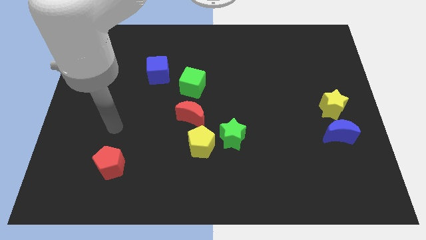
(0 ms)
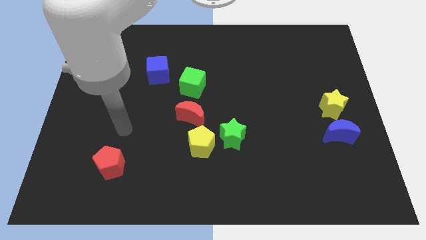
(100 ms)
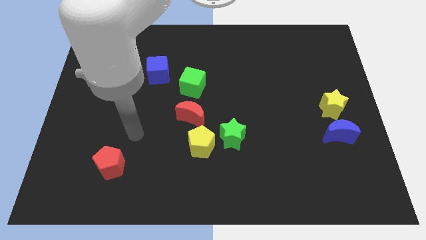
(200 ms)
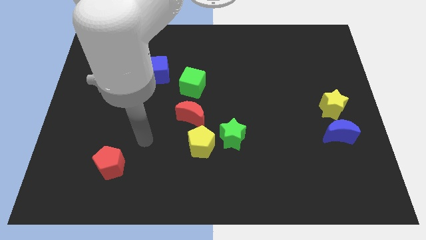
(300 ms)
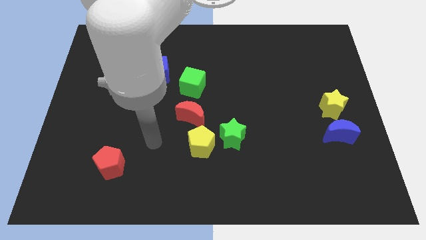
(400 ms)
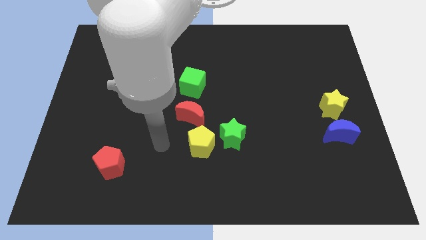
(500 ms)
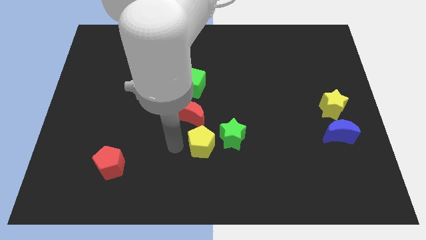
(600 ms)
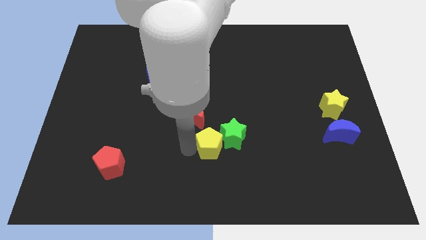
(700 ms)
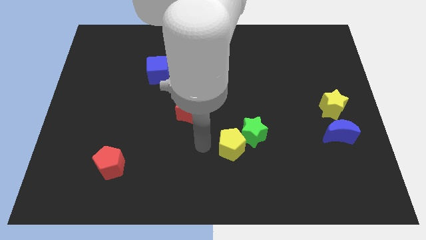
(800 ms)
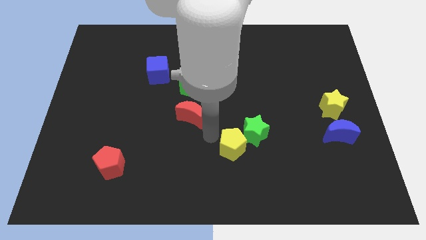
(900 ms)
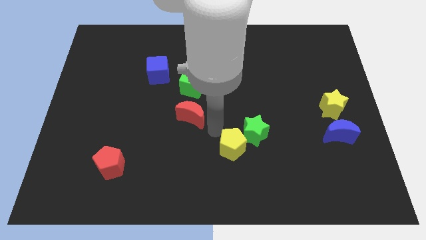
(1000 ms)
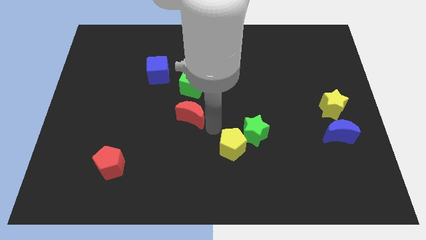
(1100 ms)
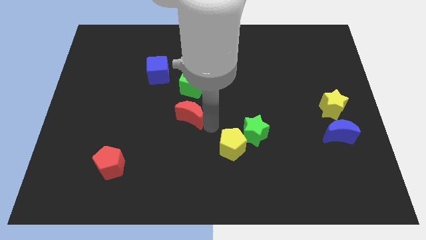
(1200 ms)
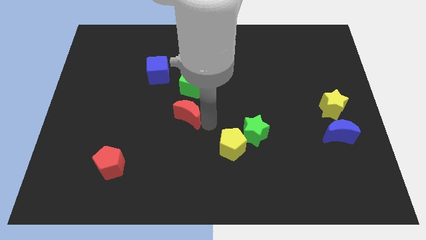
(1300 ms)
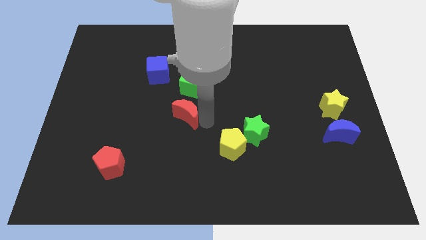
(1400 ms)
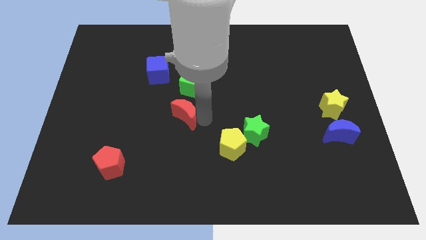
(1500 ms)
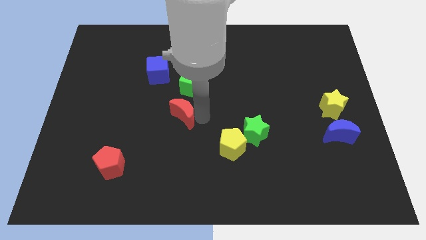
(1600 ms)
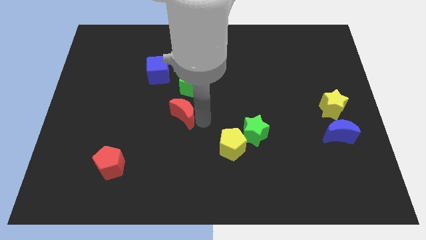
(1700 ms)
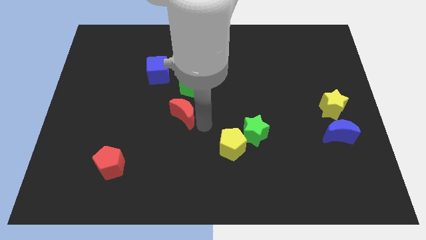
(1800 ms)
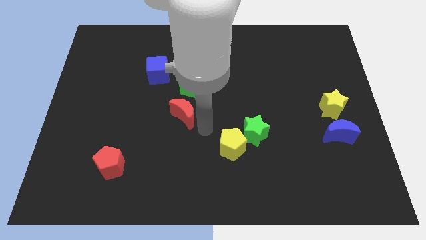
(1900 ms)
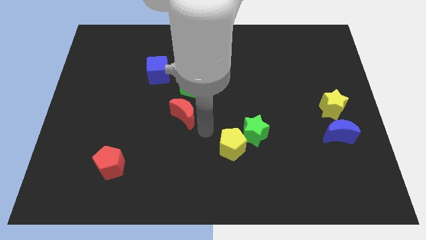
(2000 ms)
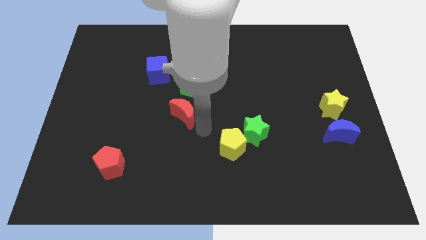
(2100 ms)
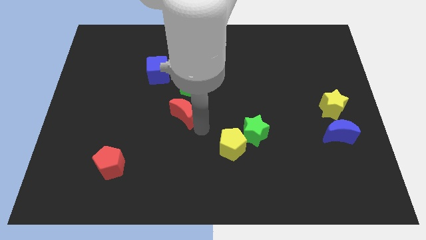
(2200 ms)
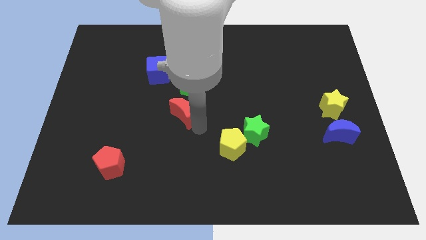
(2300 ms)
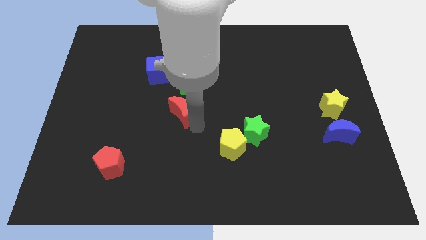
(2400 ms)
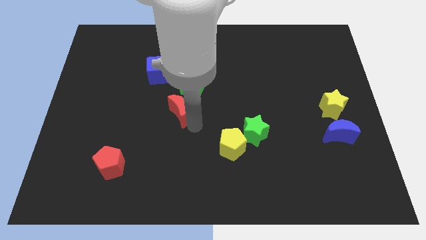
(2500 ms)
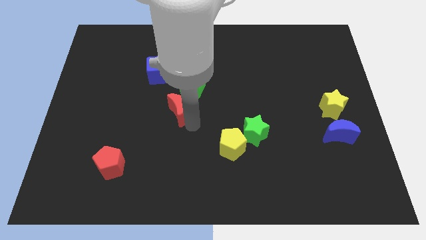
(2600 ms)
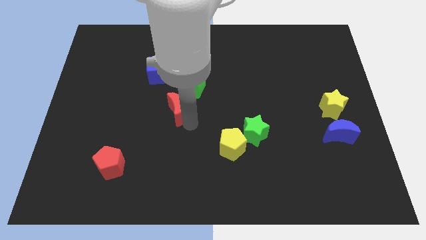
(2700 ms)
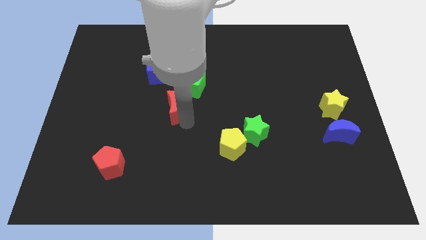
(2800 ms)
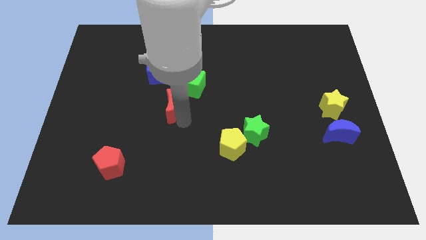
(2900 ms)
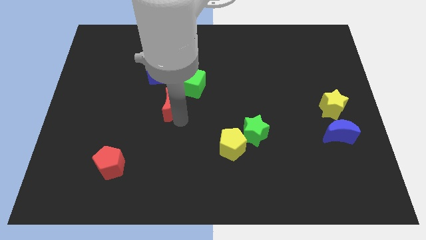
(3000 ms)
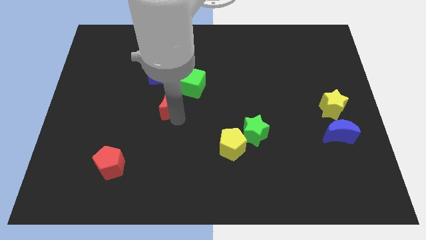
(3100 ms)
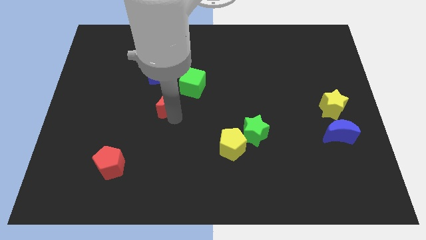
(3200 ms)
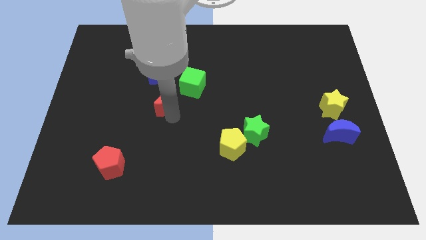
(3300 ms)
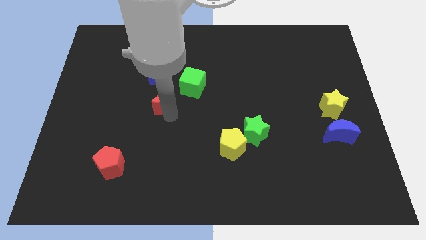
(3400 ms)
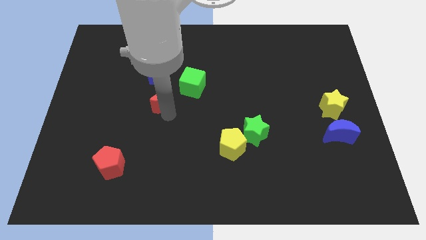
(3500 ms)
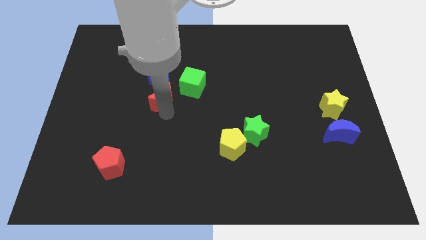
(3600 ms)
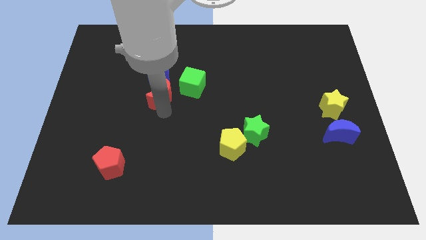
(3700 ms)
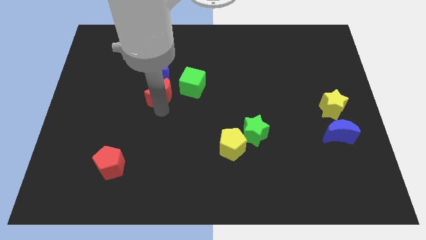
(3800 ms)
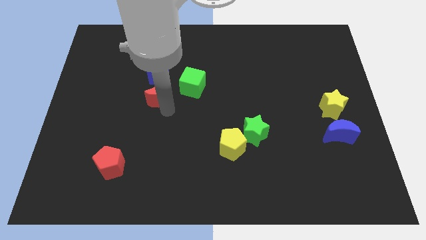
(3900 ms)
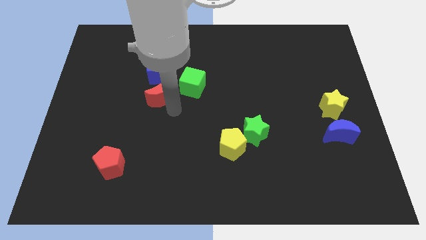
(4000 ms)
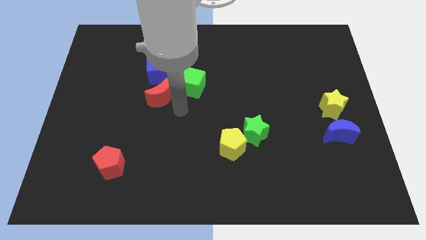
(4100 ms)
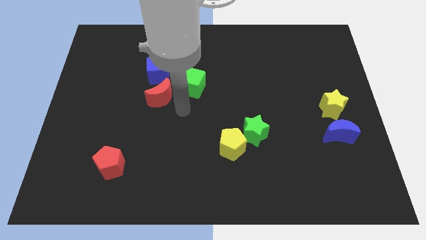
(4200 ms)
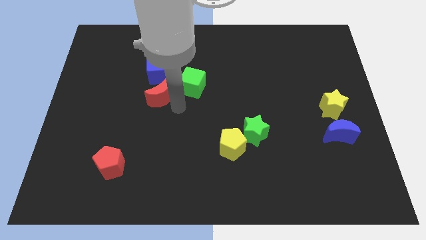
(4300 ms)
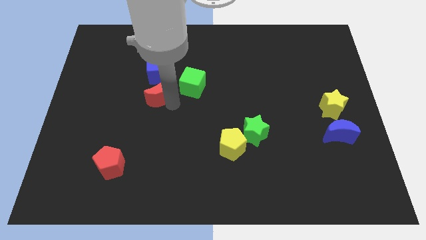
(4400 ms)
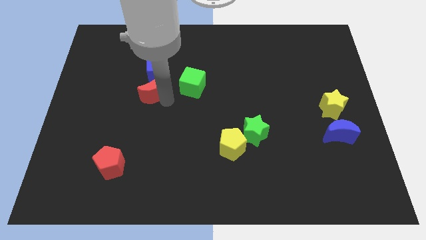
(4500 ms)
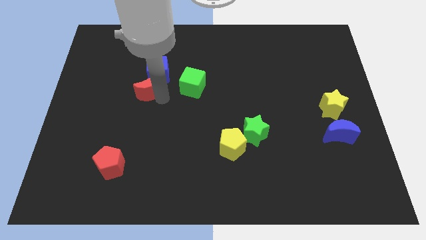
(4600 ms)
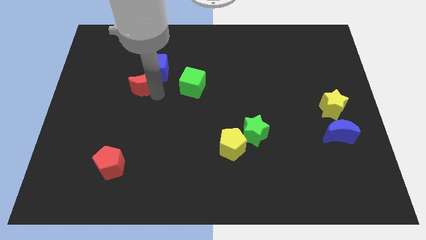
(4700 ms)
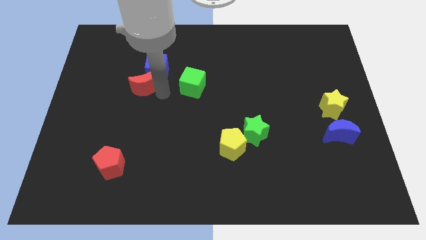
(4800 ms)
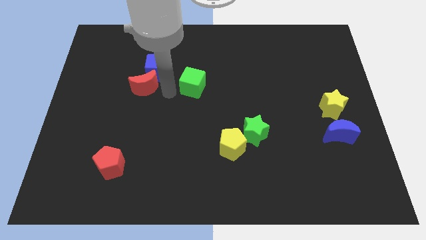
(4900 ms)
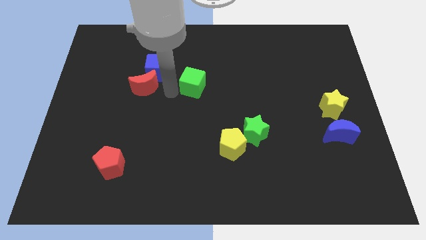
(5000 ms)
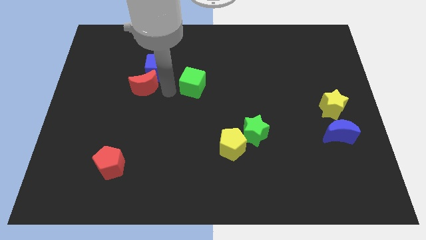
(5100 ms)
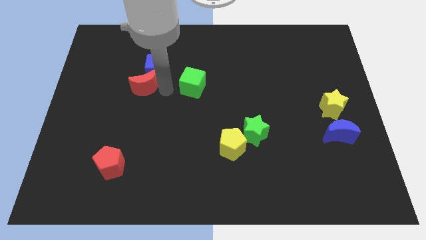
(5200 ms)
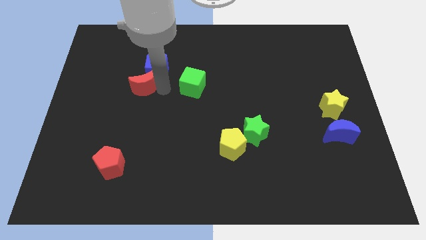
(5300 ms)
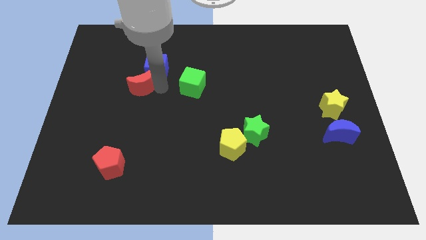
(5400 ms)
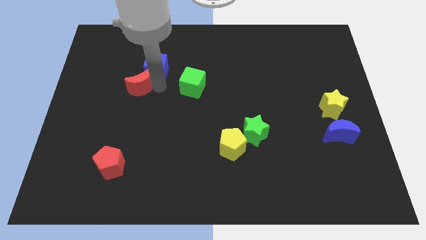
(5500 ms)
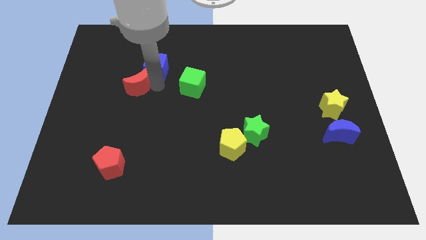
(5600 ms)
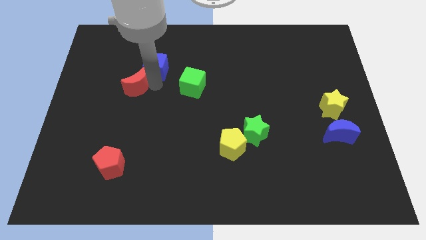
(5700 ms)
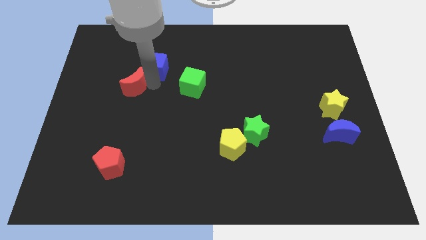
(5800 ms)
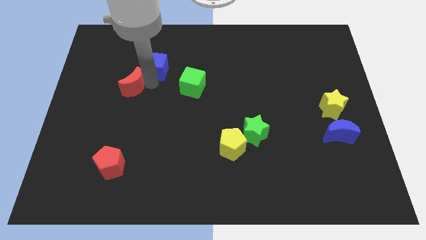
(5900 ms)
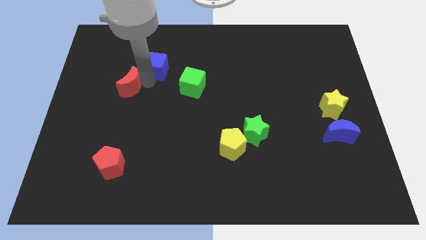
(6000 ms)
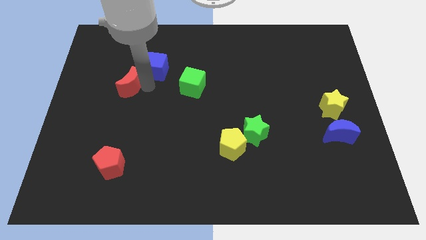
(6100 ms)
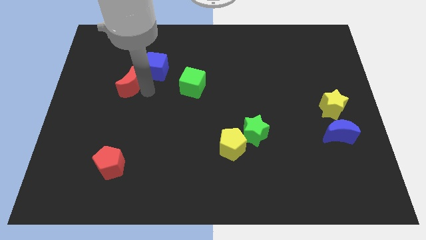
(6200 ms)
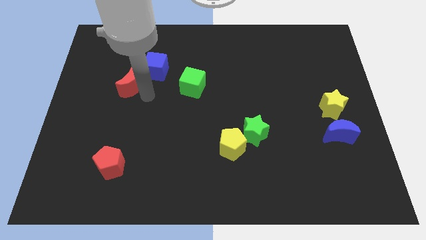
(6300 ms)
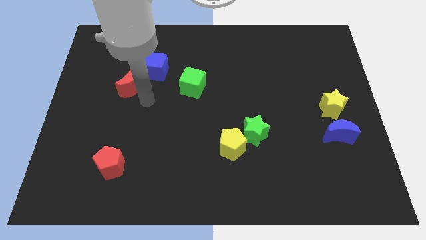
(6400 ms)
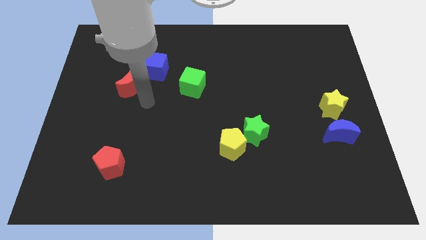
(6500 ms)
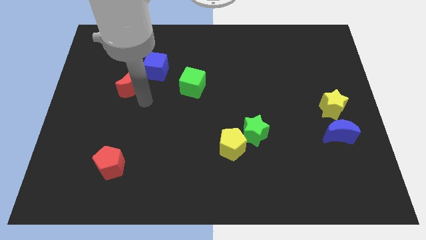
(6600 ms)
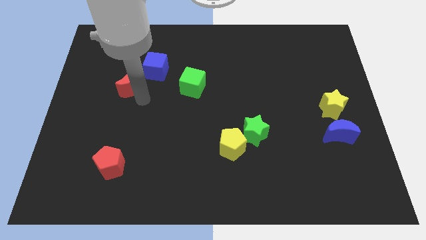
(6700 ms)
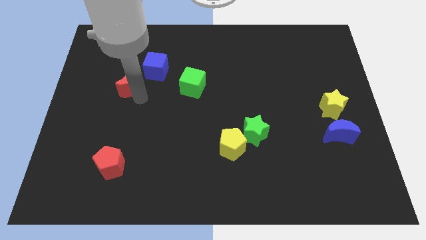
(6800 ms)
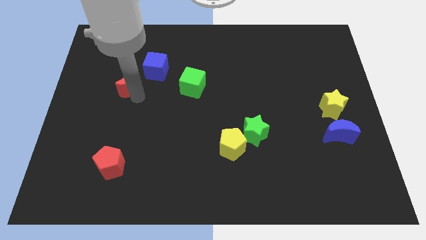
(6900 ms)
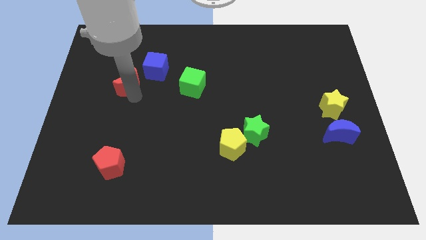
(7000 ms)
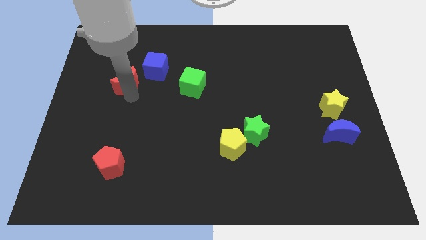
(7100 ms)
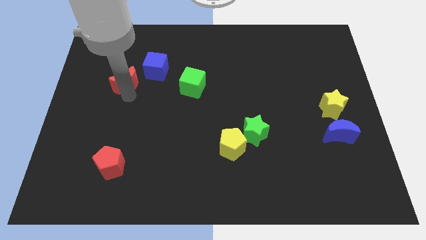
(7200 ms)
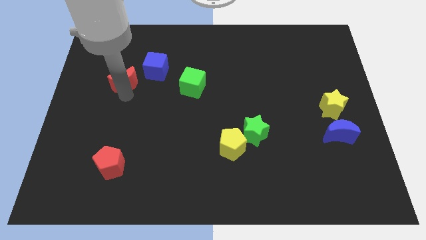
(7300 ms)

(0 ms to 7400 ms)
slide the red moon to the left side of the blue cube
